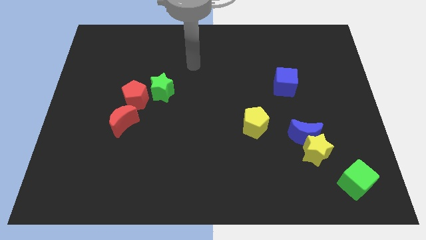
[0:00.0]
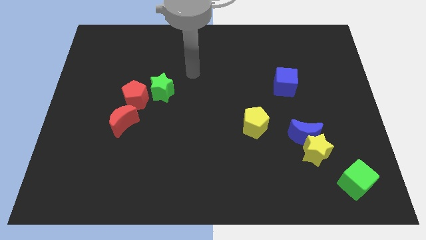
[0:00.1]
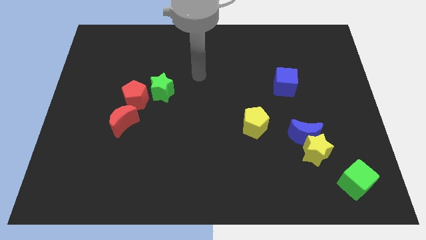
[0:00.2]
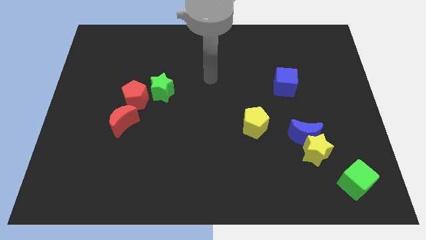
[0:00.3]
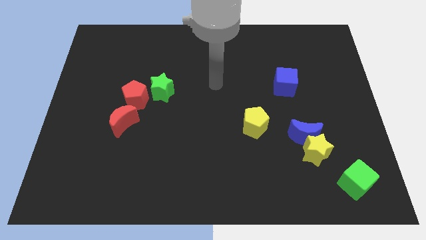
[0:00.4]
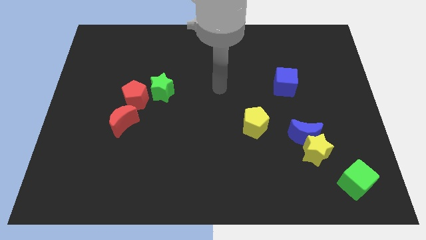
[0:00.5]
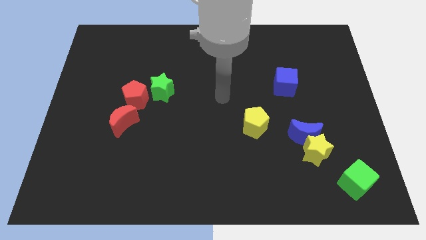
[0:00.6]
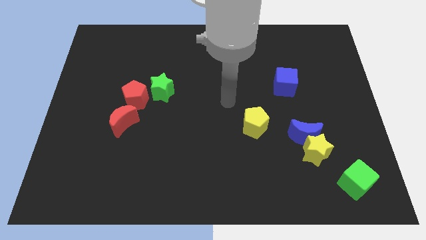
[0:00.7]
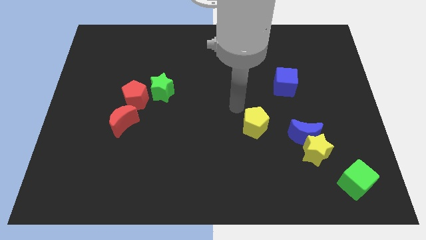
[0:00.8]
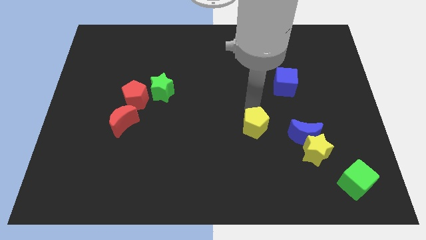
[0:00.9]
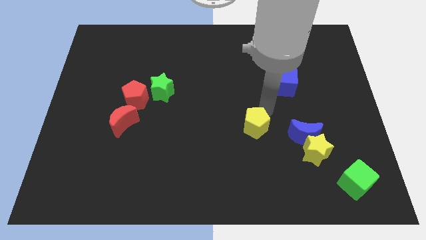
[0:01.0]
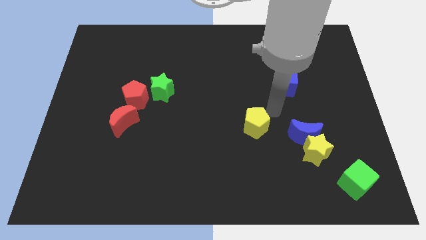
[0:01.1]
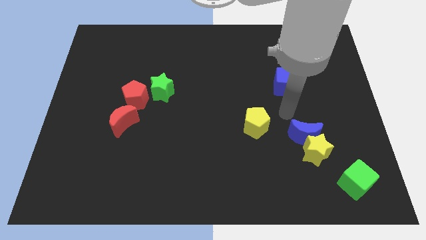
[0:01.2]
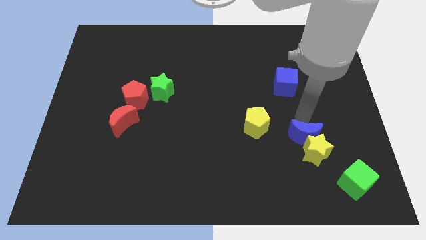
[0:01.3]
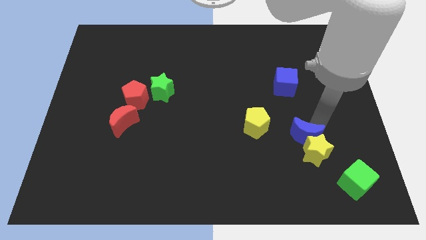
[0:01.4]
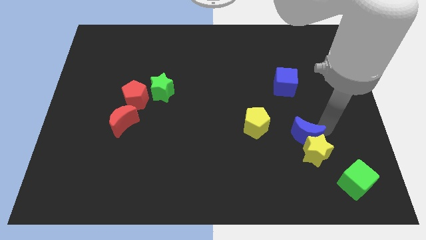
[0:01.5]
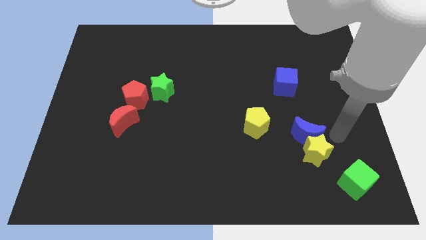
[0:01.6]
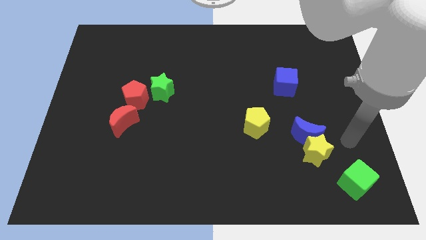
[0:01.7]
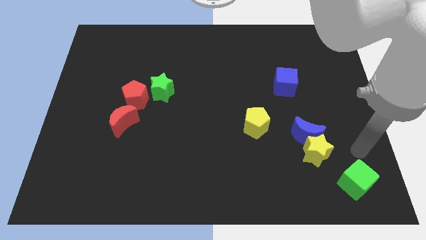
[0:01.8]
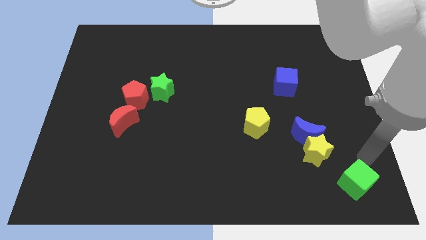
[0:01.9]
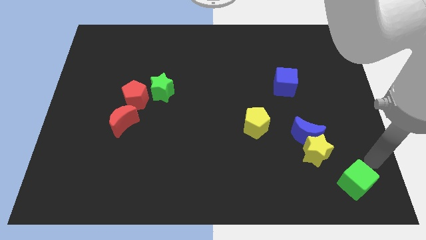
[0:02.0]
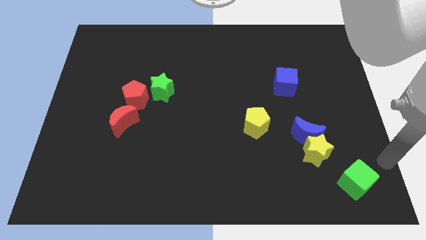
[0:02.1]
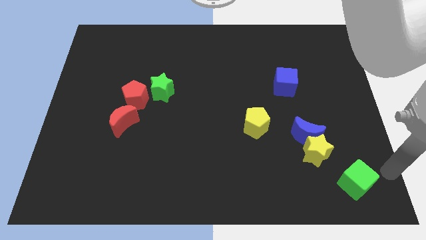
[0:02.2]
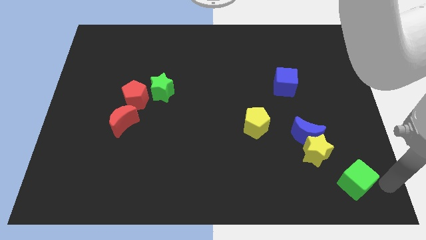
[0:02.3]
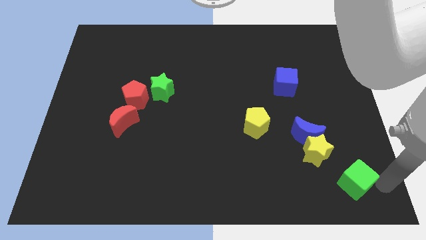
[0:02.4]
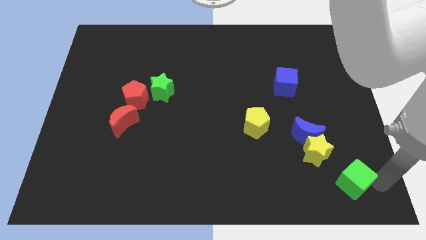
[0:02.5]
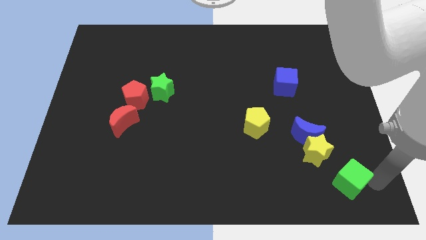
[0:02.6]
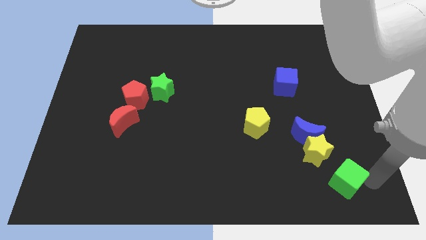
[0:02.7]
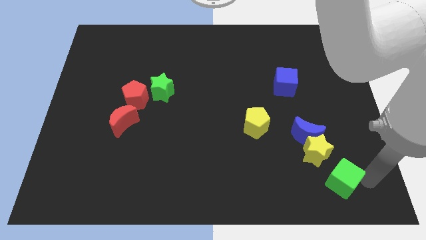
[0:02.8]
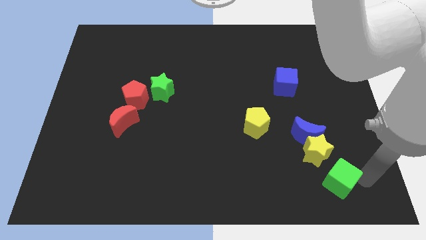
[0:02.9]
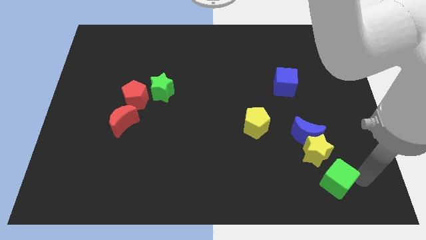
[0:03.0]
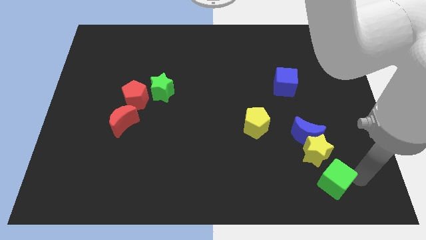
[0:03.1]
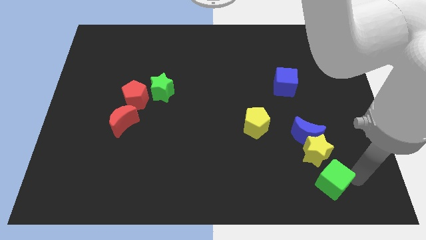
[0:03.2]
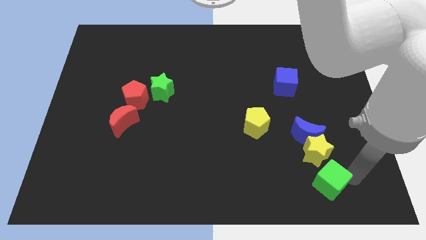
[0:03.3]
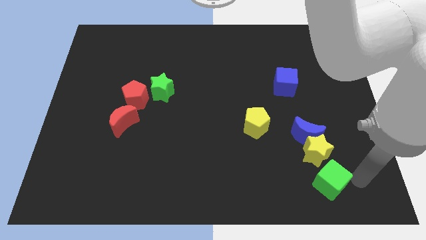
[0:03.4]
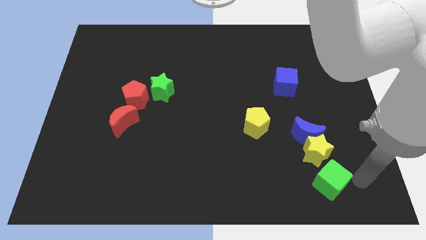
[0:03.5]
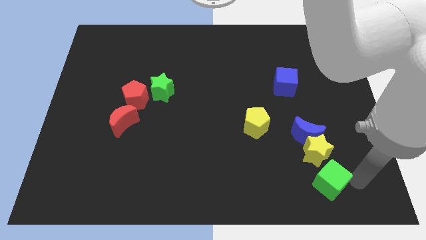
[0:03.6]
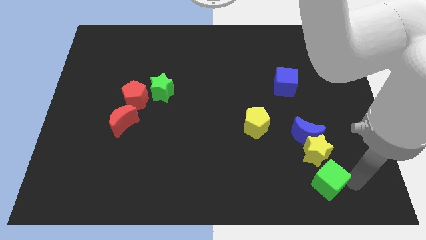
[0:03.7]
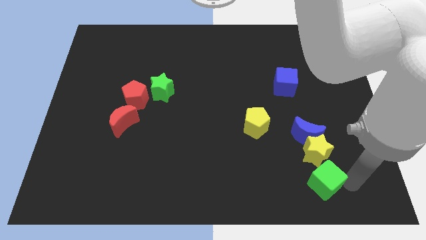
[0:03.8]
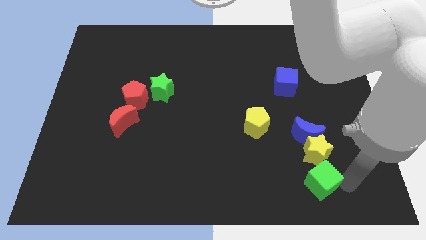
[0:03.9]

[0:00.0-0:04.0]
push the green cube left slightly

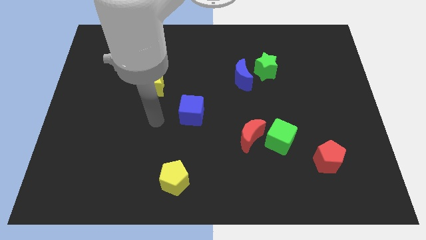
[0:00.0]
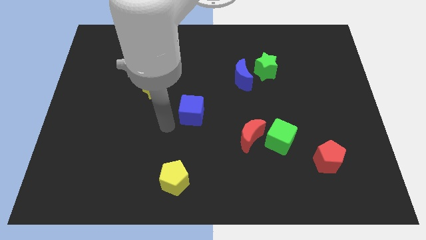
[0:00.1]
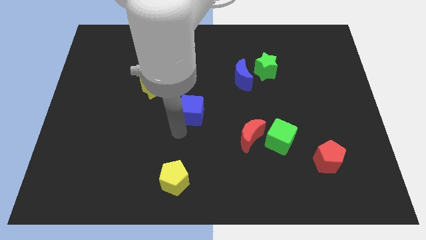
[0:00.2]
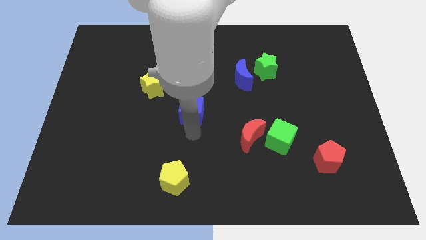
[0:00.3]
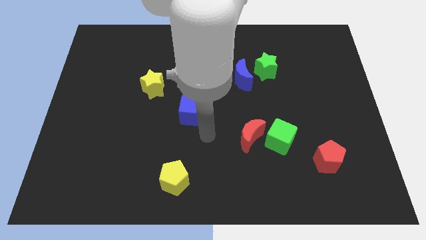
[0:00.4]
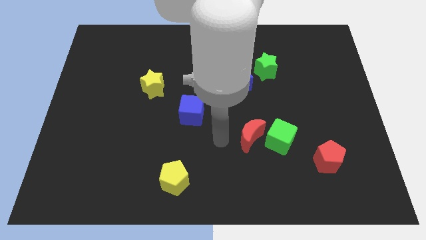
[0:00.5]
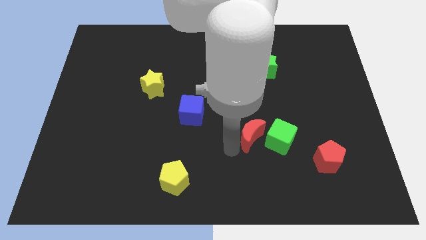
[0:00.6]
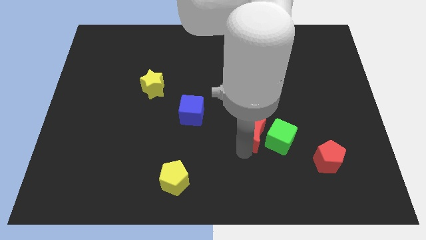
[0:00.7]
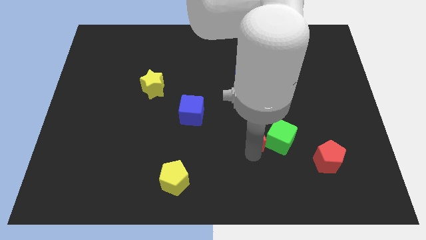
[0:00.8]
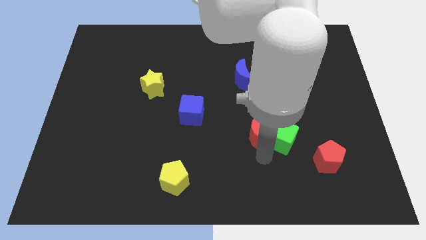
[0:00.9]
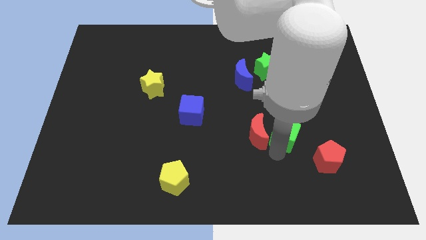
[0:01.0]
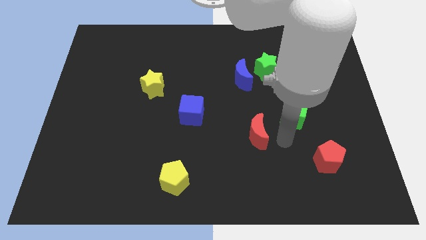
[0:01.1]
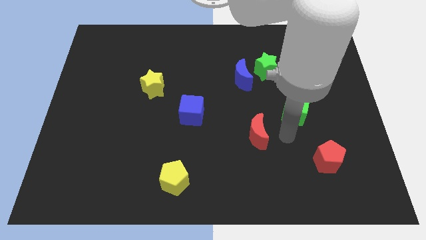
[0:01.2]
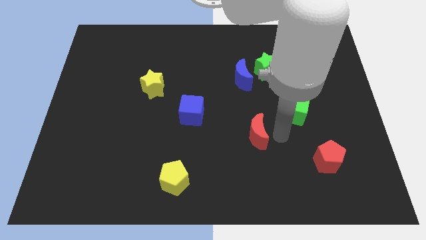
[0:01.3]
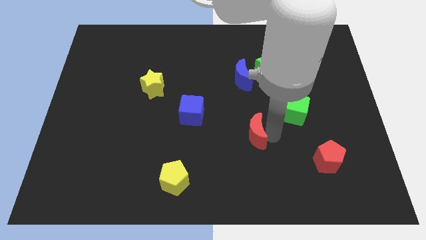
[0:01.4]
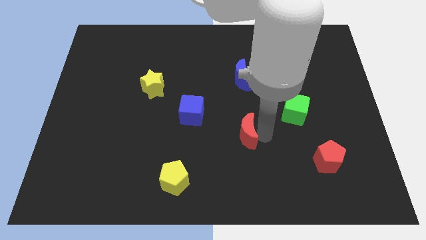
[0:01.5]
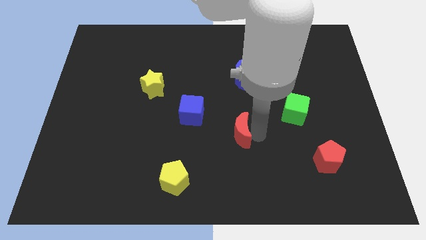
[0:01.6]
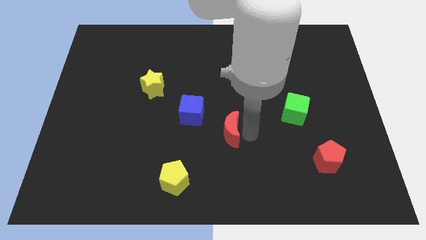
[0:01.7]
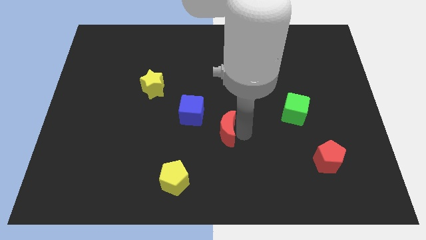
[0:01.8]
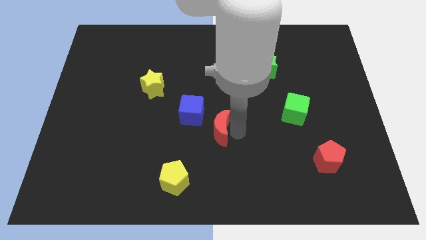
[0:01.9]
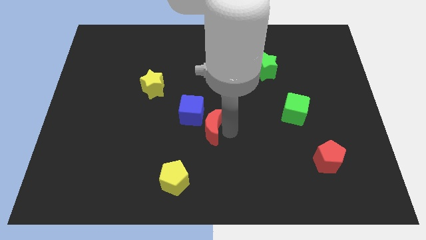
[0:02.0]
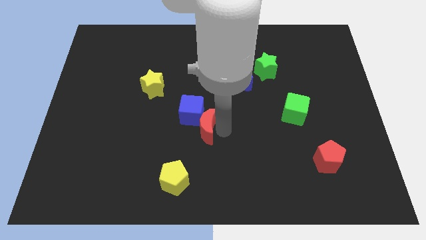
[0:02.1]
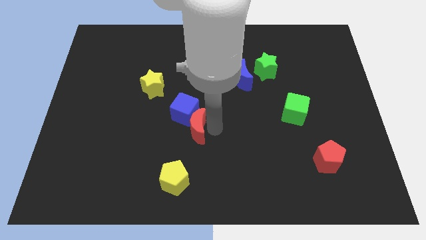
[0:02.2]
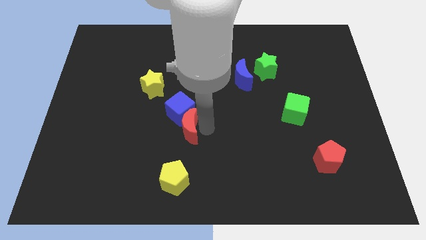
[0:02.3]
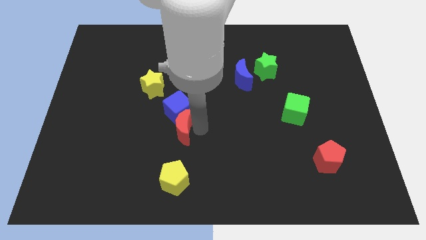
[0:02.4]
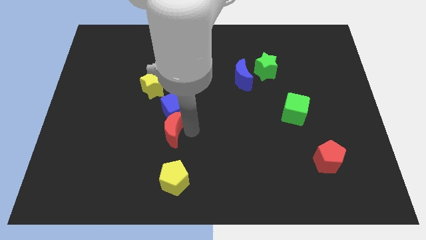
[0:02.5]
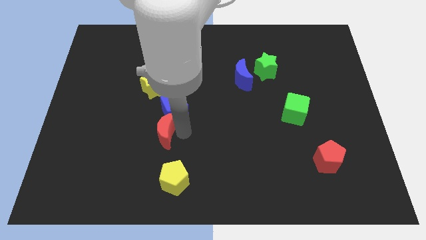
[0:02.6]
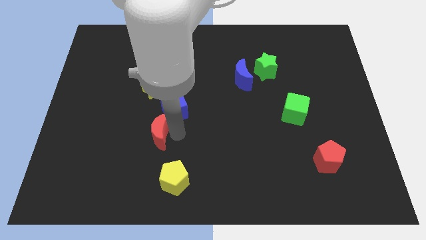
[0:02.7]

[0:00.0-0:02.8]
slide the red moon left

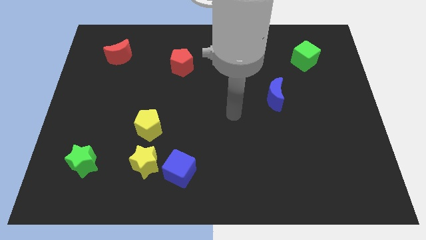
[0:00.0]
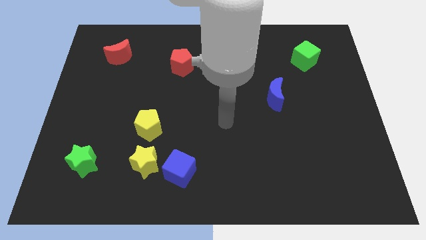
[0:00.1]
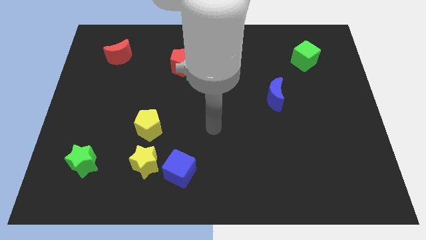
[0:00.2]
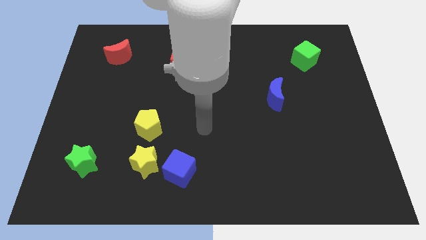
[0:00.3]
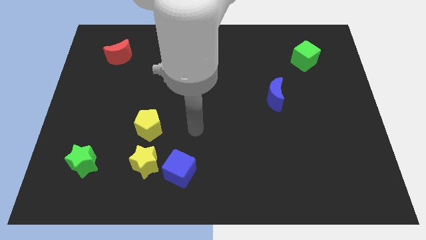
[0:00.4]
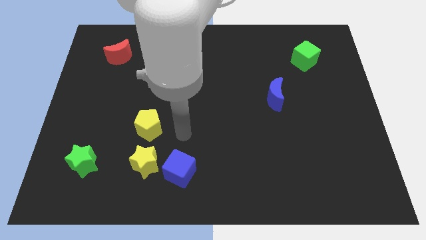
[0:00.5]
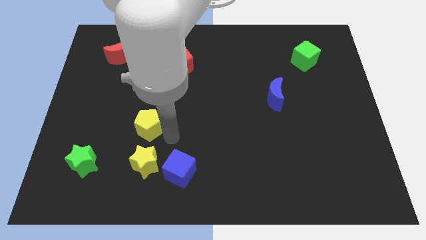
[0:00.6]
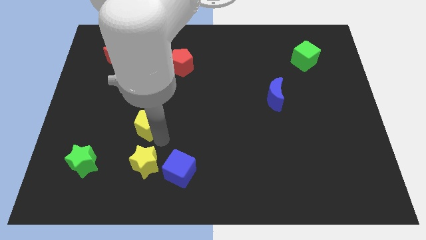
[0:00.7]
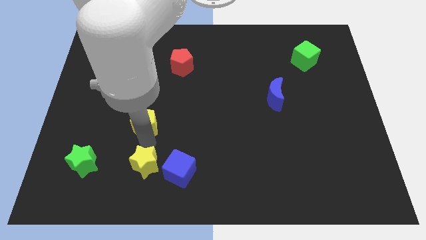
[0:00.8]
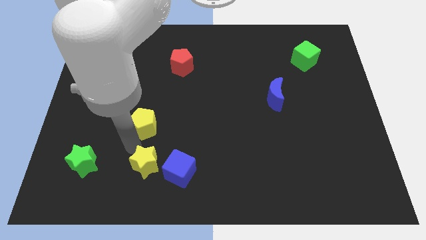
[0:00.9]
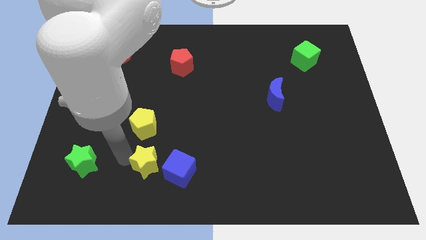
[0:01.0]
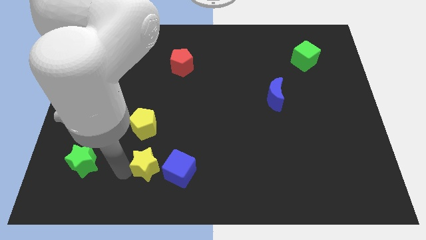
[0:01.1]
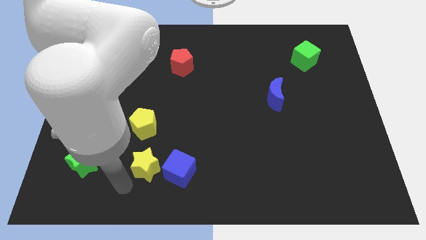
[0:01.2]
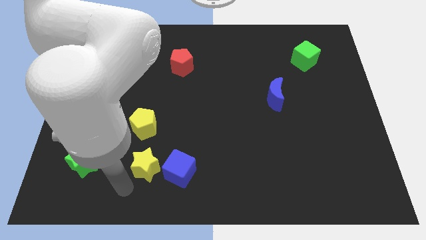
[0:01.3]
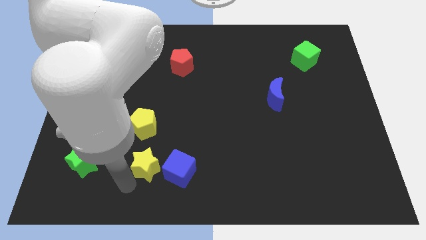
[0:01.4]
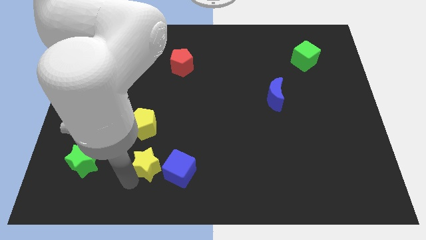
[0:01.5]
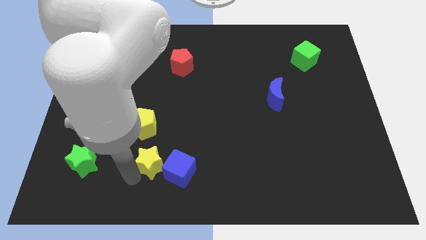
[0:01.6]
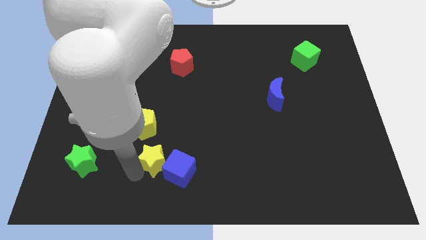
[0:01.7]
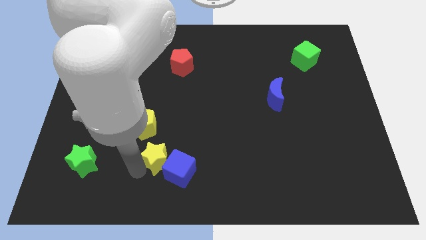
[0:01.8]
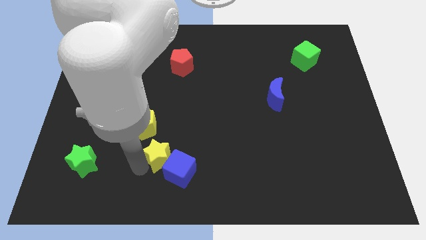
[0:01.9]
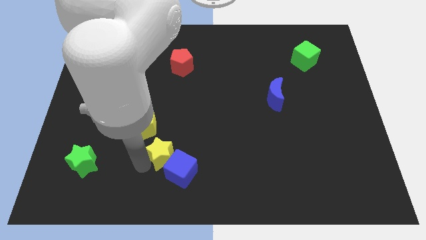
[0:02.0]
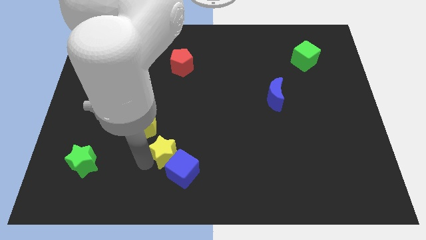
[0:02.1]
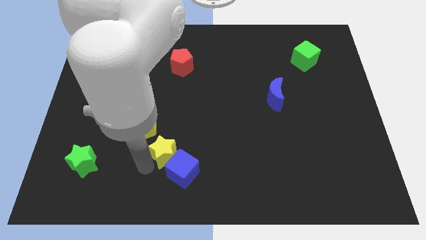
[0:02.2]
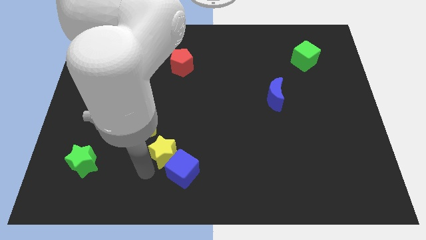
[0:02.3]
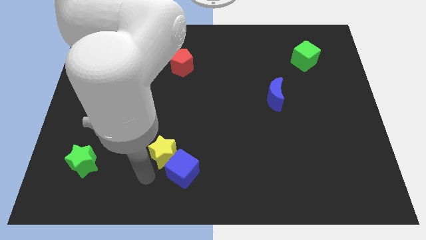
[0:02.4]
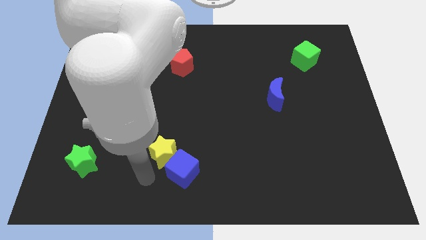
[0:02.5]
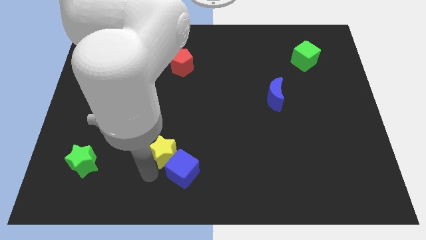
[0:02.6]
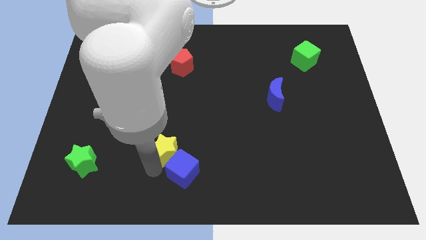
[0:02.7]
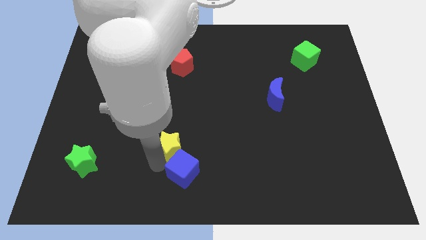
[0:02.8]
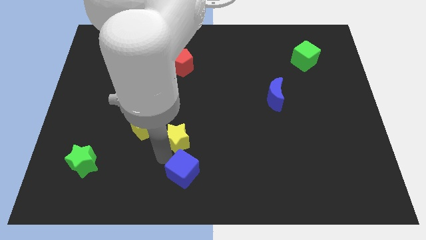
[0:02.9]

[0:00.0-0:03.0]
slide the yellow star a little up and then right
